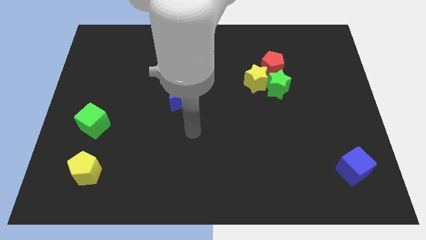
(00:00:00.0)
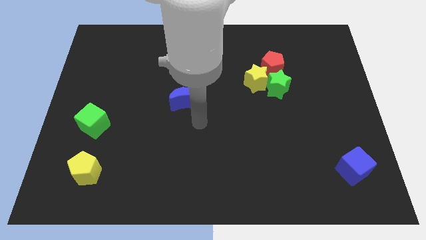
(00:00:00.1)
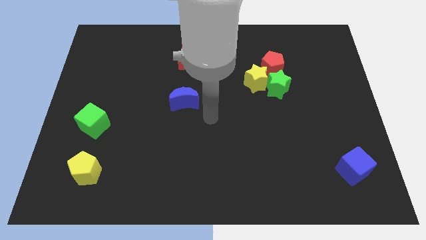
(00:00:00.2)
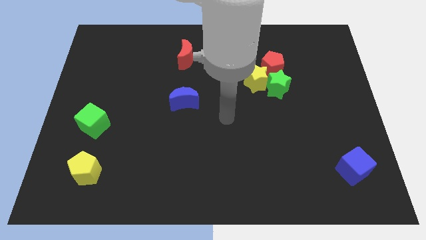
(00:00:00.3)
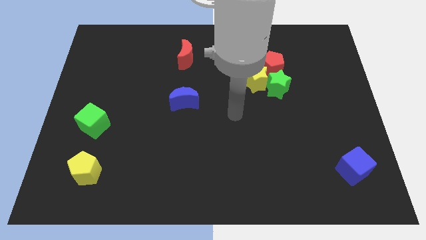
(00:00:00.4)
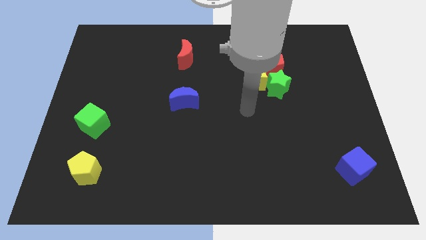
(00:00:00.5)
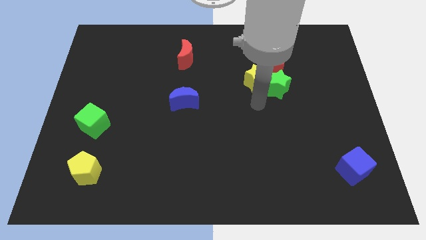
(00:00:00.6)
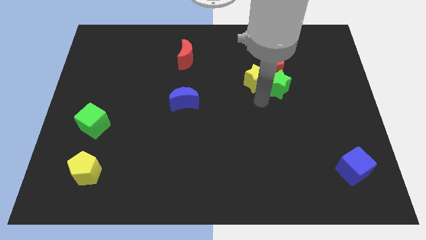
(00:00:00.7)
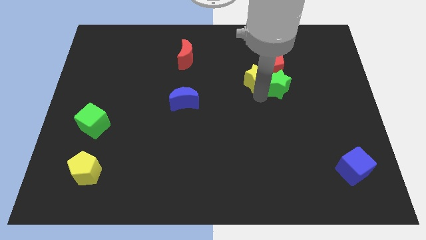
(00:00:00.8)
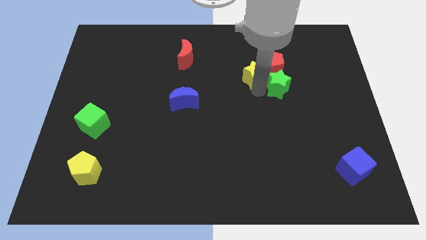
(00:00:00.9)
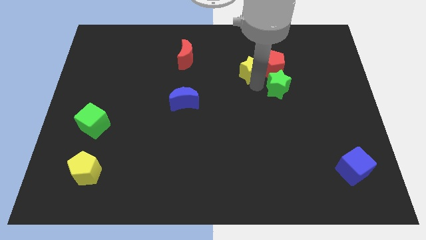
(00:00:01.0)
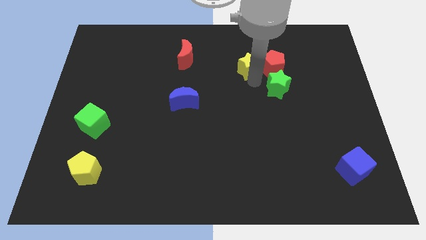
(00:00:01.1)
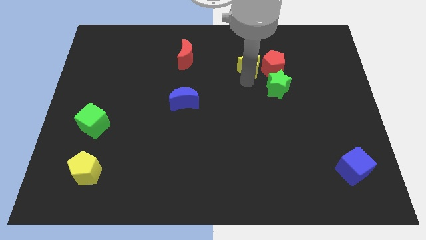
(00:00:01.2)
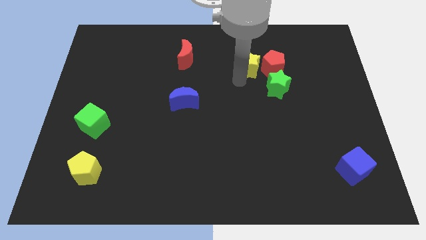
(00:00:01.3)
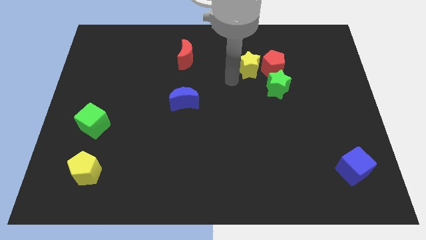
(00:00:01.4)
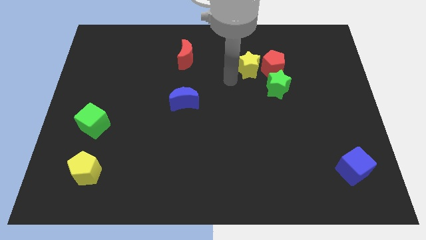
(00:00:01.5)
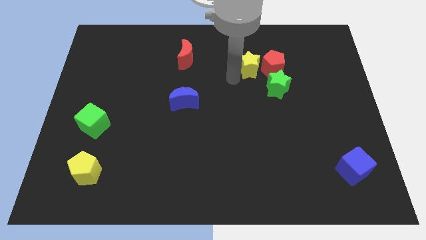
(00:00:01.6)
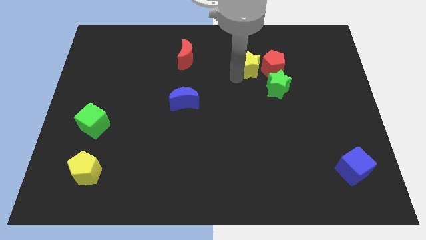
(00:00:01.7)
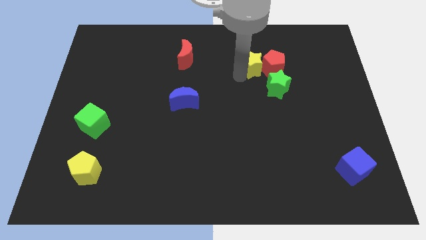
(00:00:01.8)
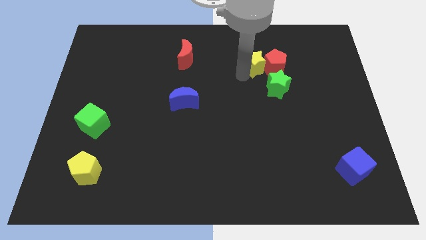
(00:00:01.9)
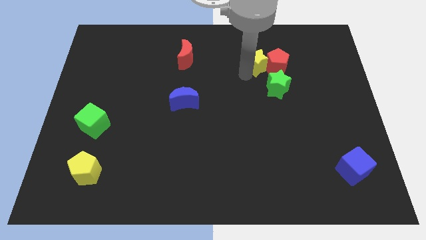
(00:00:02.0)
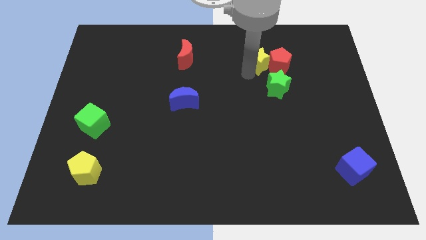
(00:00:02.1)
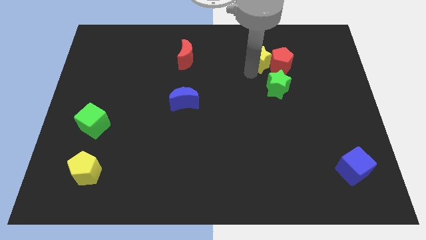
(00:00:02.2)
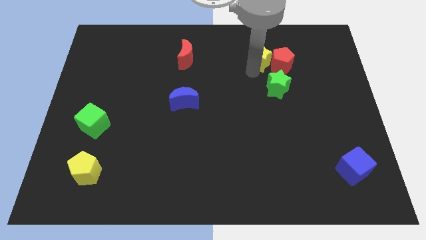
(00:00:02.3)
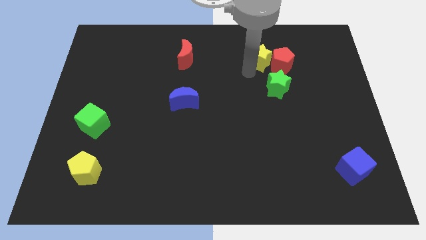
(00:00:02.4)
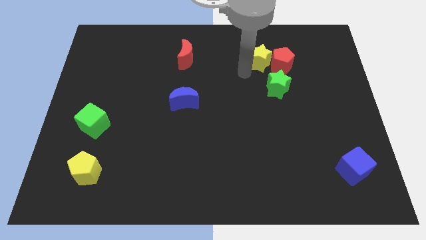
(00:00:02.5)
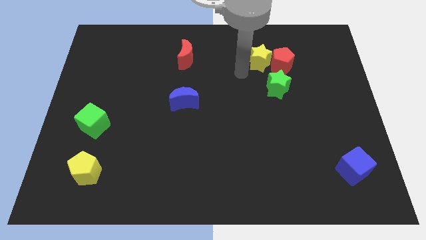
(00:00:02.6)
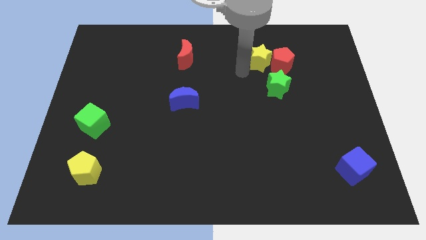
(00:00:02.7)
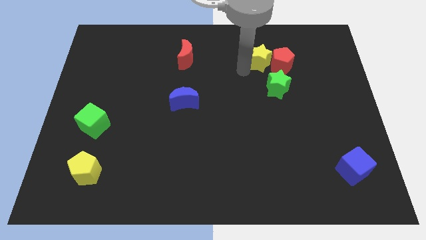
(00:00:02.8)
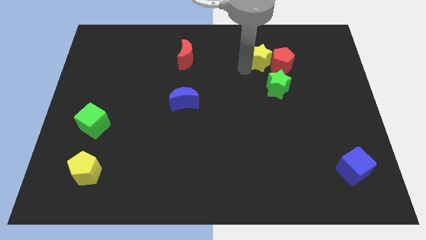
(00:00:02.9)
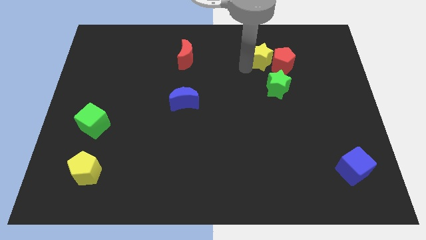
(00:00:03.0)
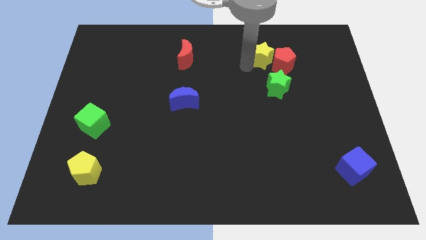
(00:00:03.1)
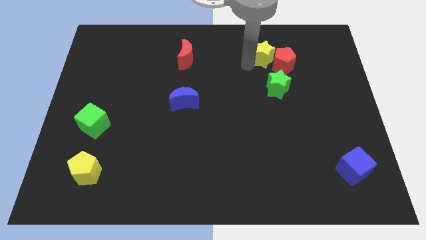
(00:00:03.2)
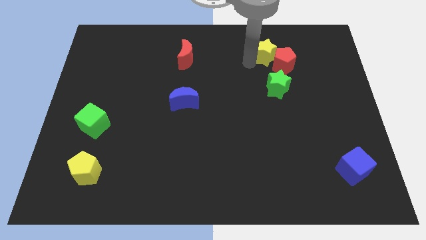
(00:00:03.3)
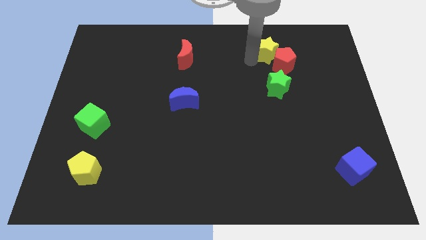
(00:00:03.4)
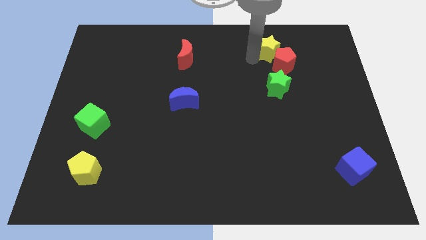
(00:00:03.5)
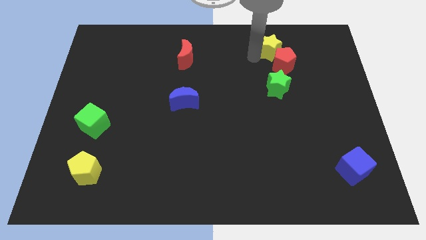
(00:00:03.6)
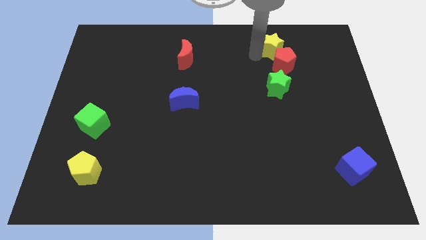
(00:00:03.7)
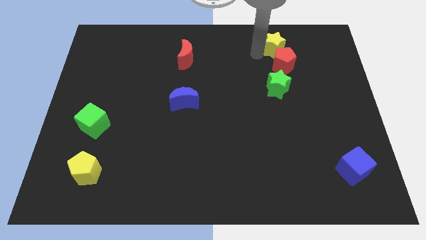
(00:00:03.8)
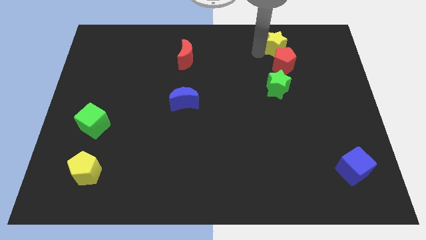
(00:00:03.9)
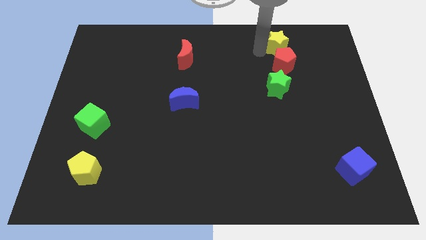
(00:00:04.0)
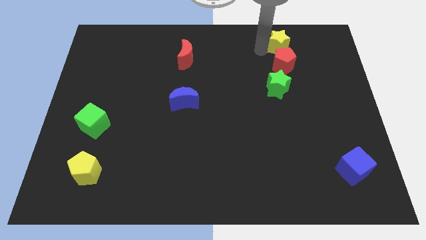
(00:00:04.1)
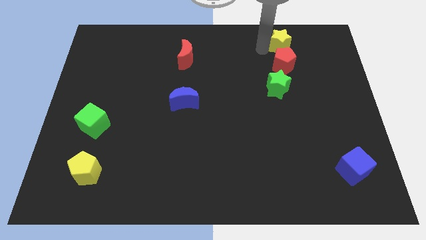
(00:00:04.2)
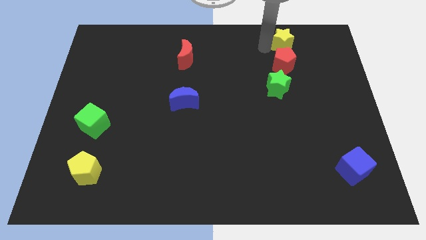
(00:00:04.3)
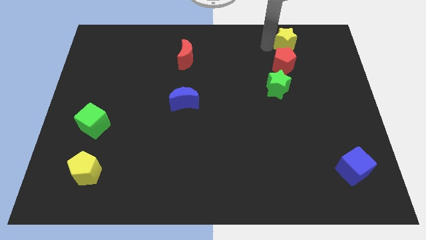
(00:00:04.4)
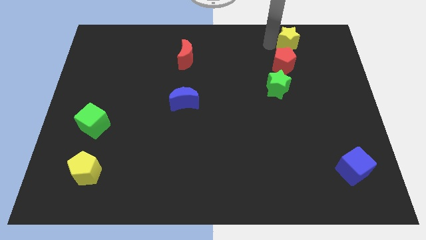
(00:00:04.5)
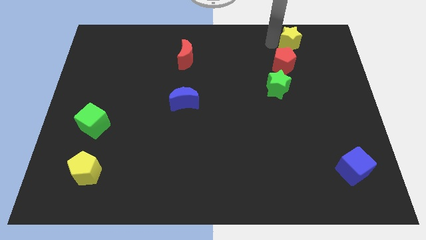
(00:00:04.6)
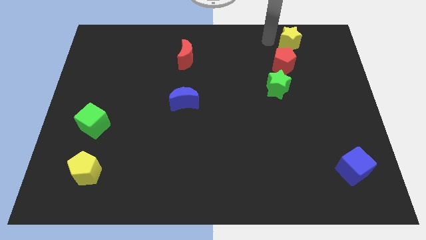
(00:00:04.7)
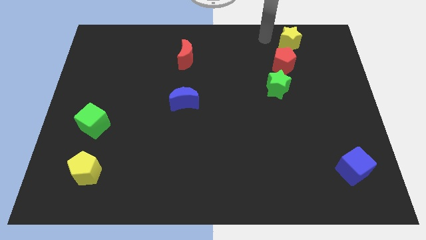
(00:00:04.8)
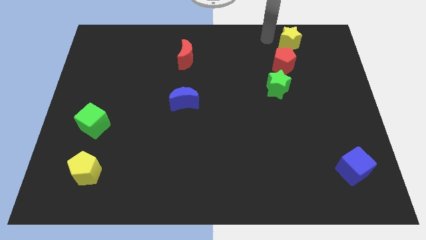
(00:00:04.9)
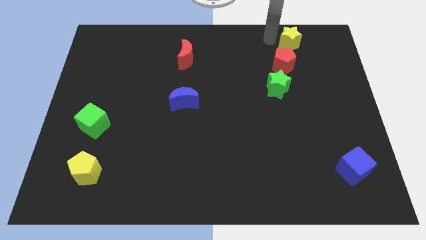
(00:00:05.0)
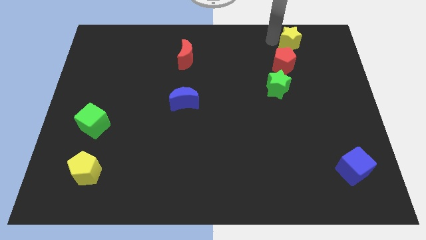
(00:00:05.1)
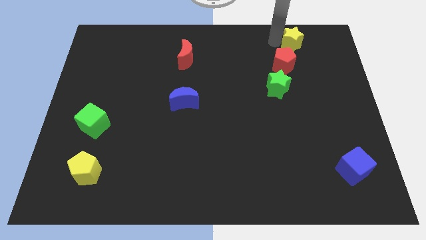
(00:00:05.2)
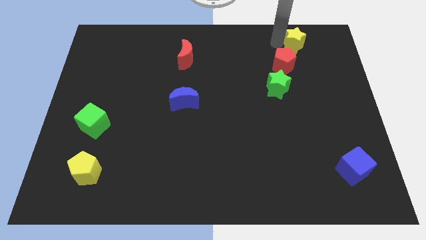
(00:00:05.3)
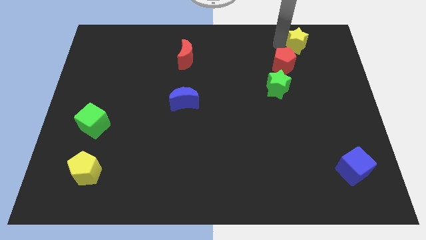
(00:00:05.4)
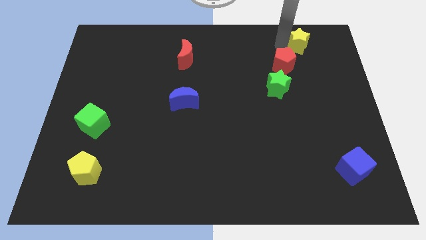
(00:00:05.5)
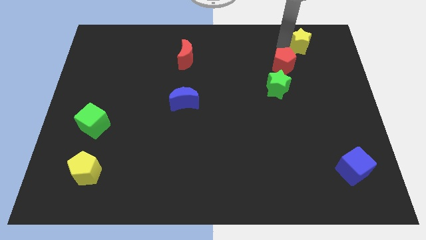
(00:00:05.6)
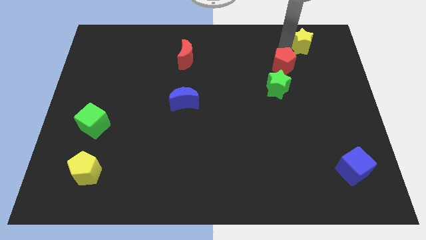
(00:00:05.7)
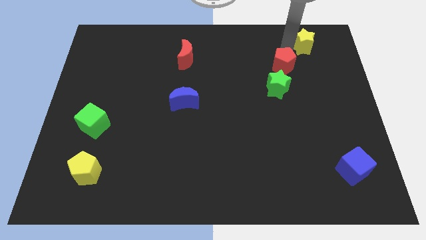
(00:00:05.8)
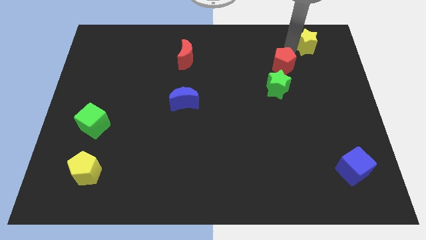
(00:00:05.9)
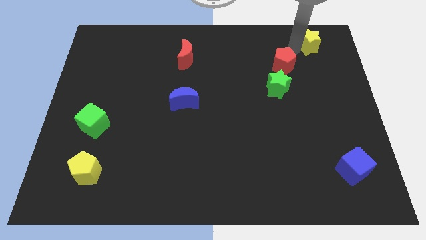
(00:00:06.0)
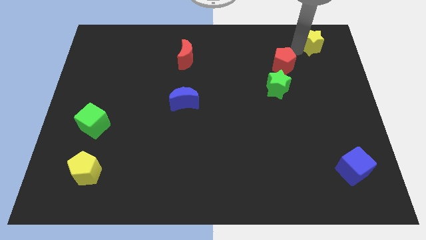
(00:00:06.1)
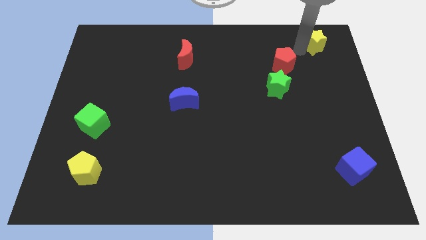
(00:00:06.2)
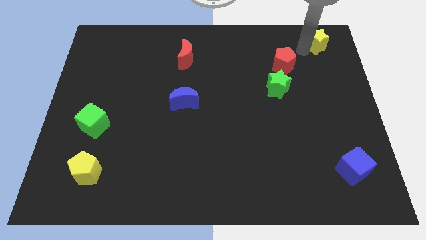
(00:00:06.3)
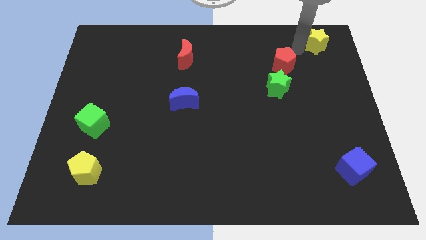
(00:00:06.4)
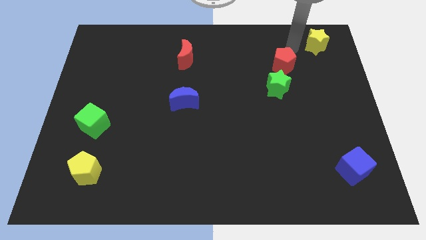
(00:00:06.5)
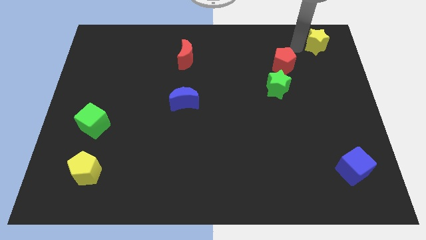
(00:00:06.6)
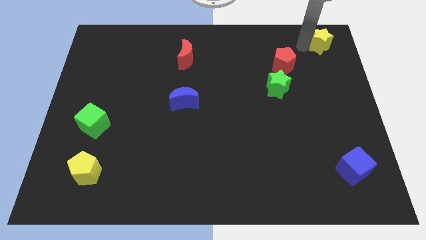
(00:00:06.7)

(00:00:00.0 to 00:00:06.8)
move the yellow star to the top right corner
